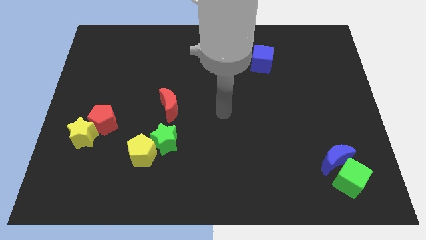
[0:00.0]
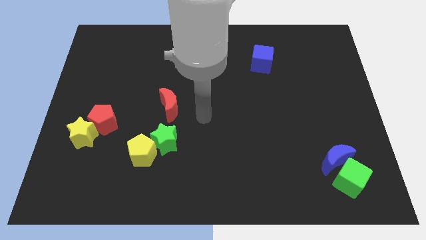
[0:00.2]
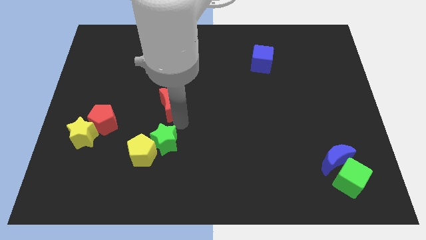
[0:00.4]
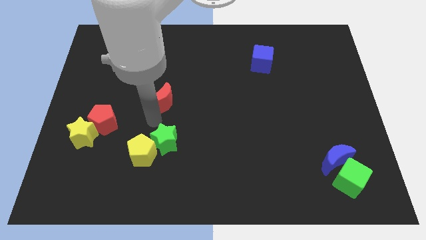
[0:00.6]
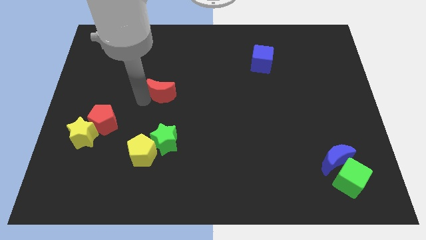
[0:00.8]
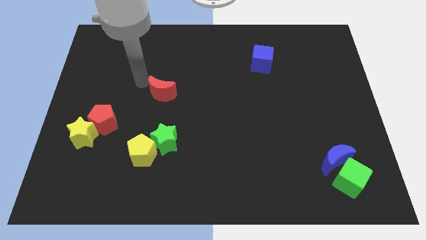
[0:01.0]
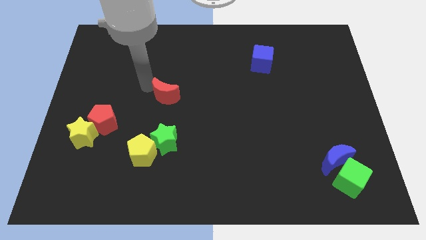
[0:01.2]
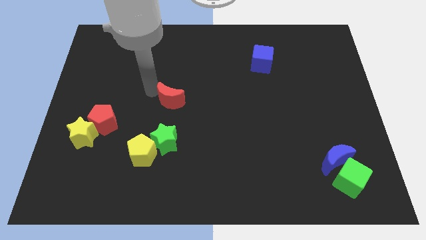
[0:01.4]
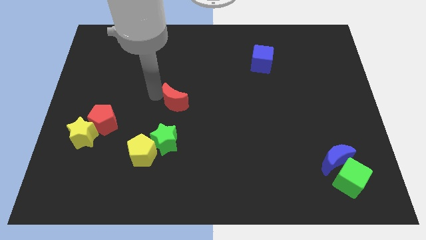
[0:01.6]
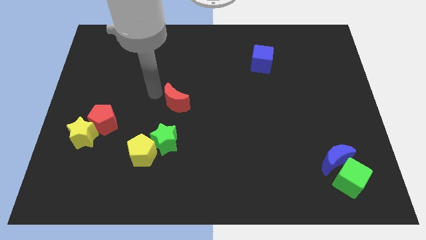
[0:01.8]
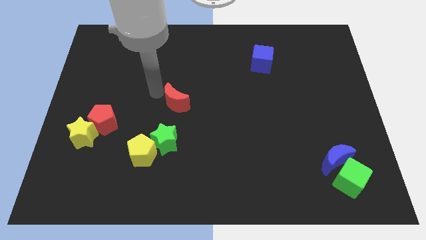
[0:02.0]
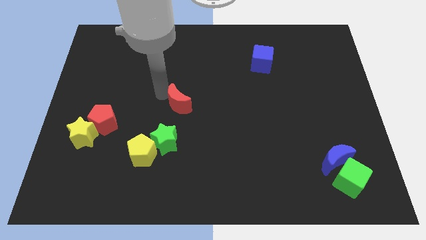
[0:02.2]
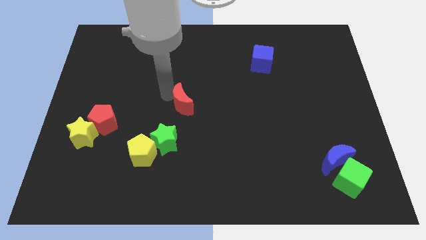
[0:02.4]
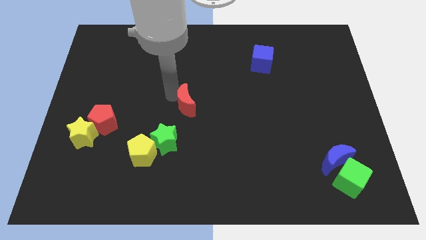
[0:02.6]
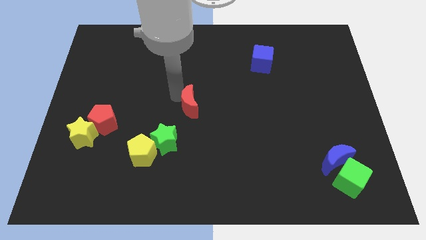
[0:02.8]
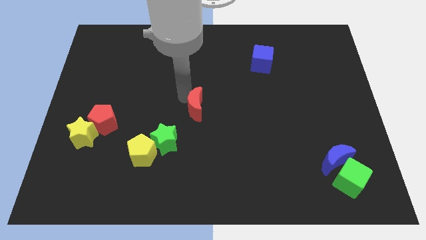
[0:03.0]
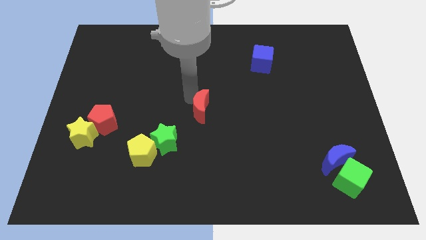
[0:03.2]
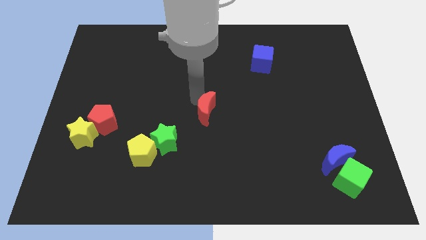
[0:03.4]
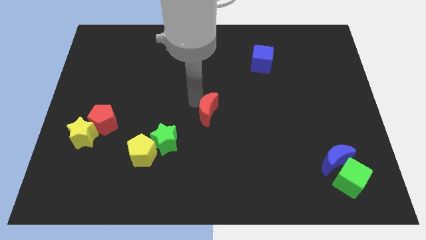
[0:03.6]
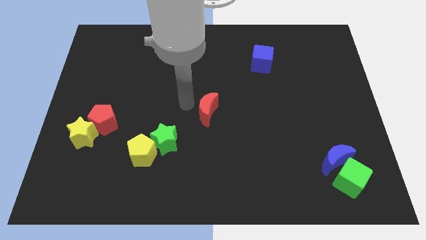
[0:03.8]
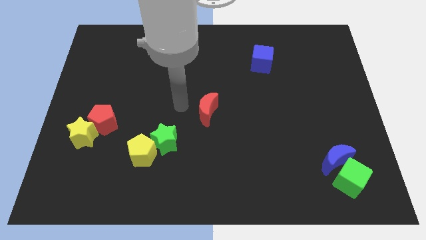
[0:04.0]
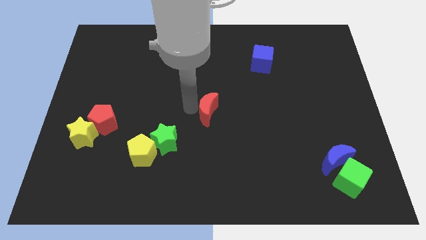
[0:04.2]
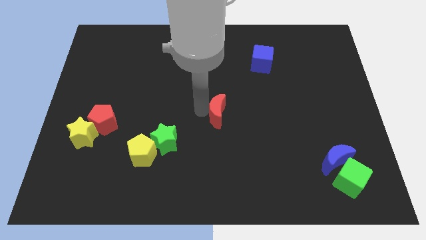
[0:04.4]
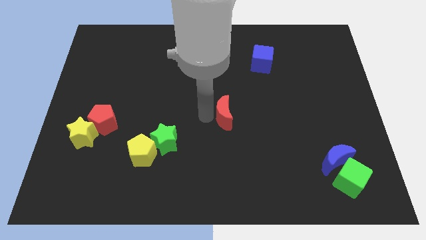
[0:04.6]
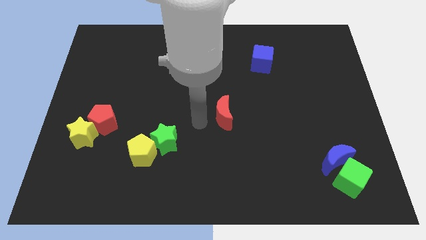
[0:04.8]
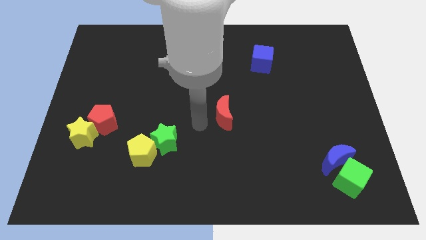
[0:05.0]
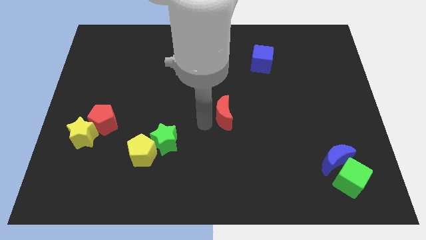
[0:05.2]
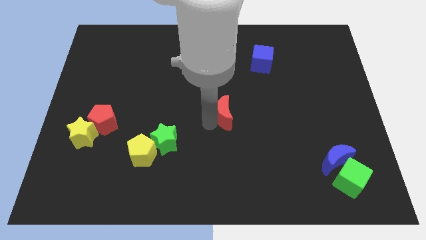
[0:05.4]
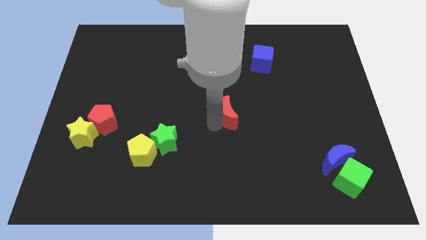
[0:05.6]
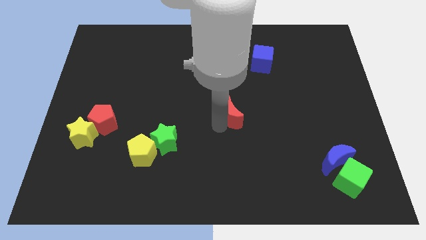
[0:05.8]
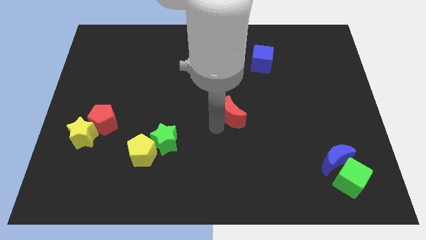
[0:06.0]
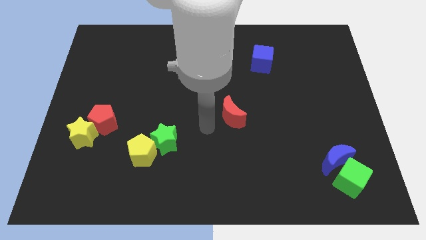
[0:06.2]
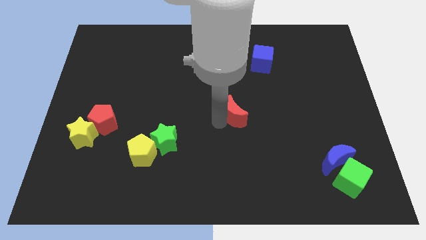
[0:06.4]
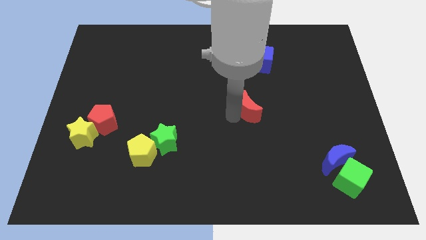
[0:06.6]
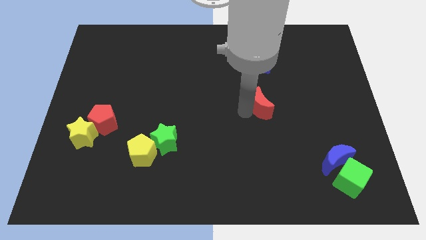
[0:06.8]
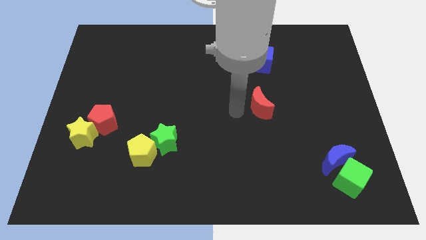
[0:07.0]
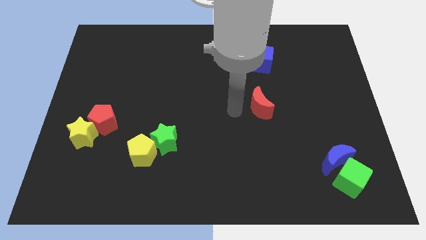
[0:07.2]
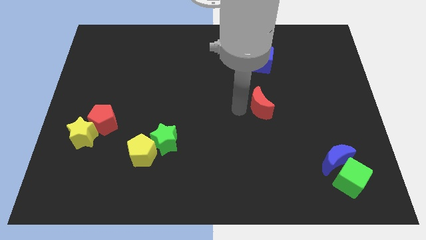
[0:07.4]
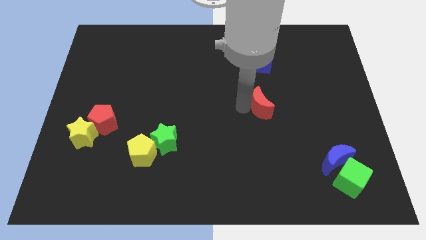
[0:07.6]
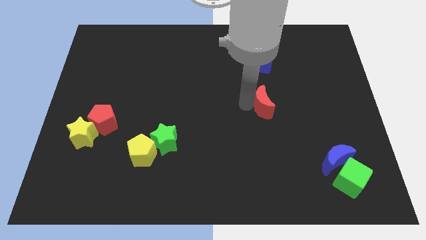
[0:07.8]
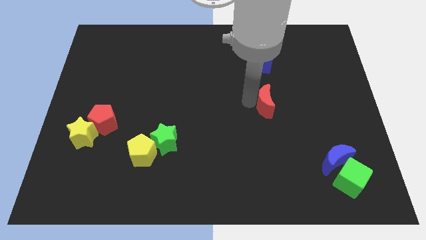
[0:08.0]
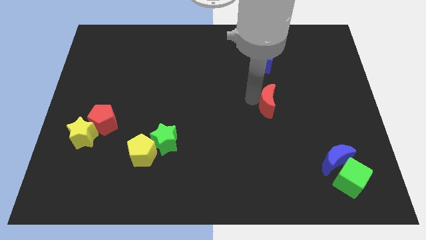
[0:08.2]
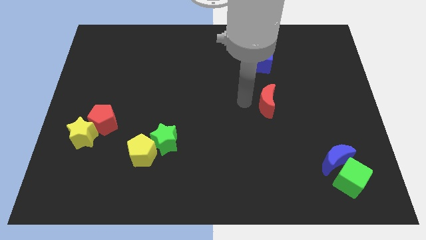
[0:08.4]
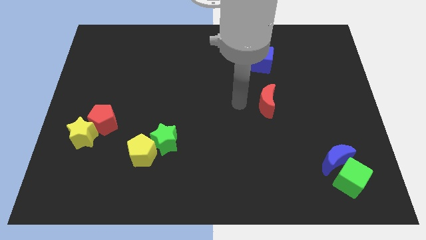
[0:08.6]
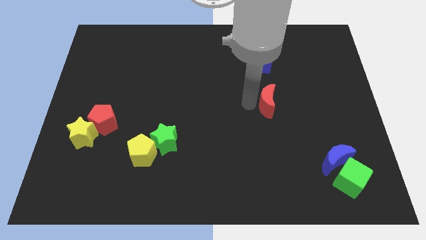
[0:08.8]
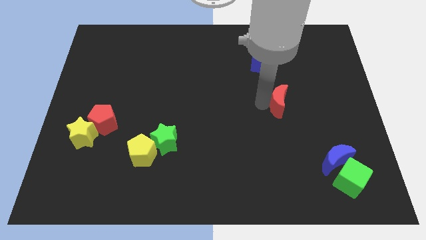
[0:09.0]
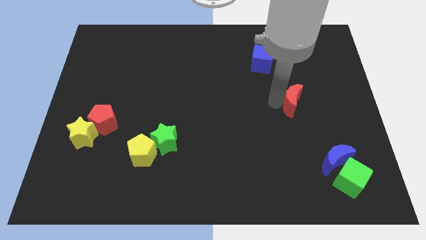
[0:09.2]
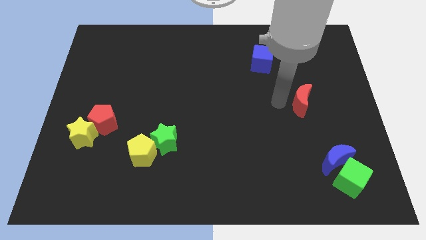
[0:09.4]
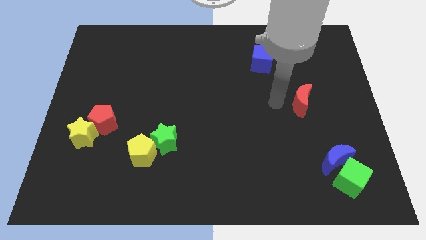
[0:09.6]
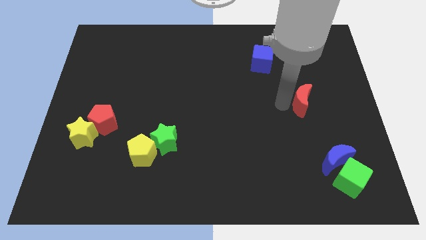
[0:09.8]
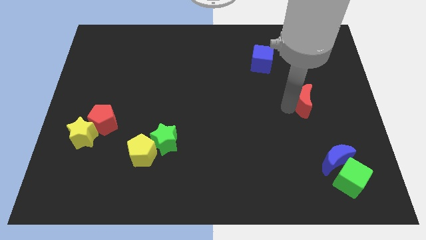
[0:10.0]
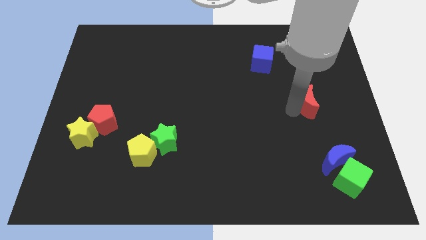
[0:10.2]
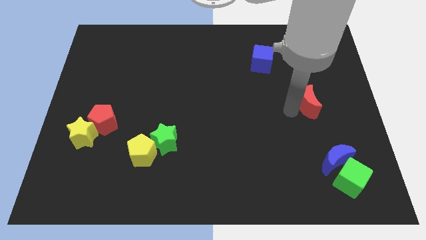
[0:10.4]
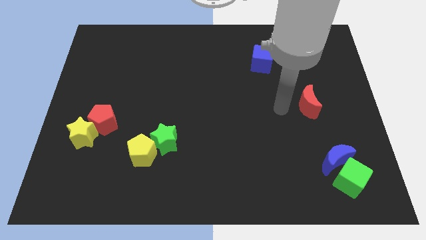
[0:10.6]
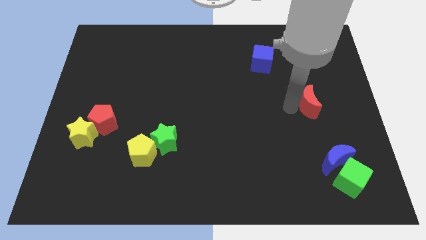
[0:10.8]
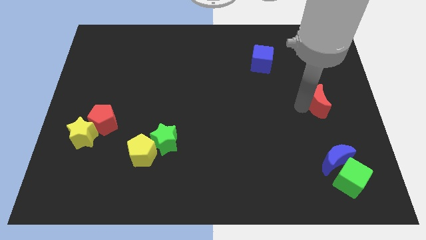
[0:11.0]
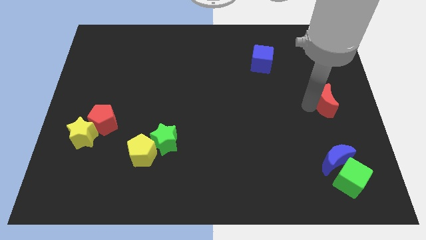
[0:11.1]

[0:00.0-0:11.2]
move the red moon to the right side of the board

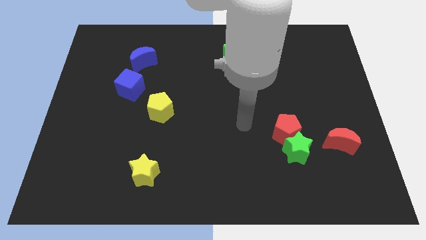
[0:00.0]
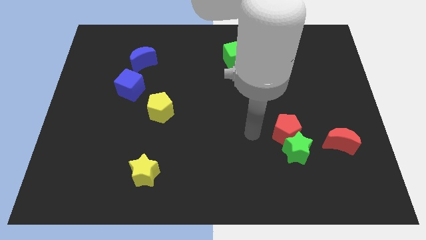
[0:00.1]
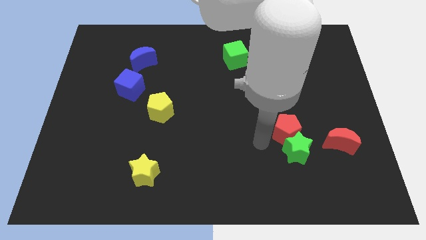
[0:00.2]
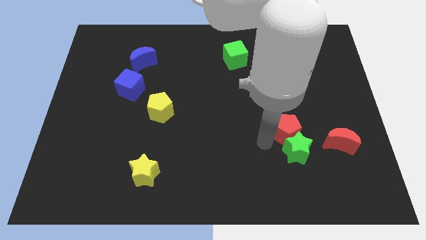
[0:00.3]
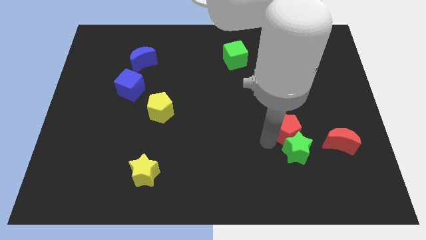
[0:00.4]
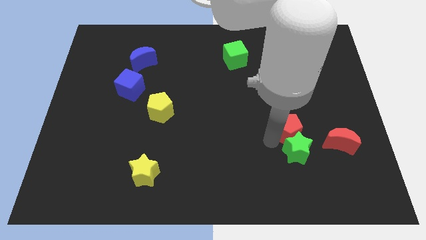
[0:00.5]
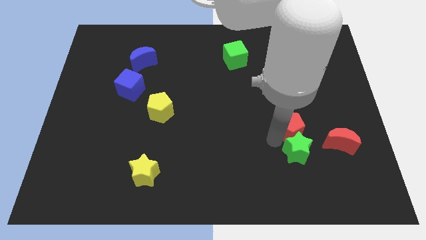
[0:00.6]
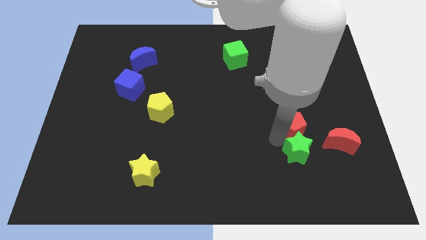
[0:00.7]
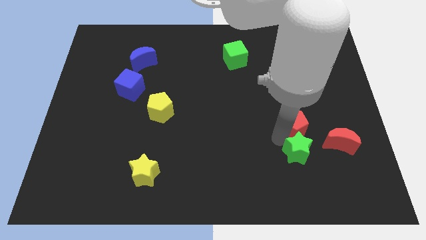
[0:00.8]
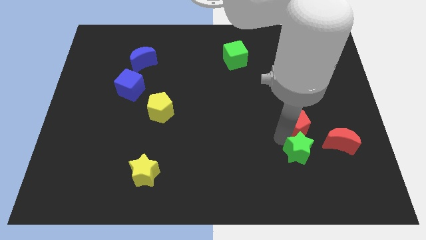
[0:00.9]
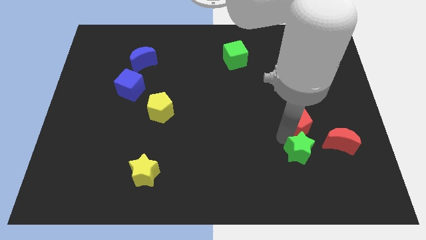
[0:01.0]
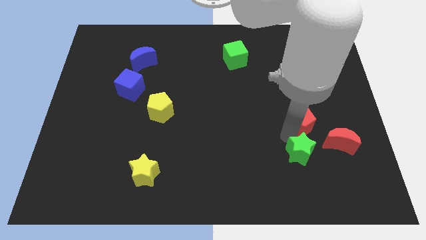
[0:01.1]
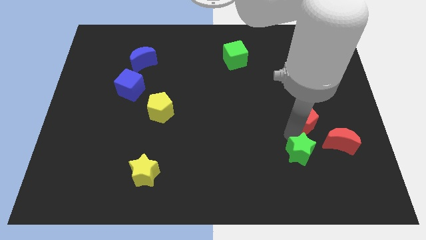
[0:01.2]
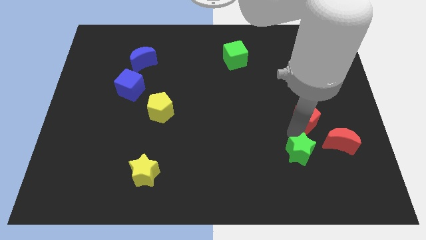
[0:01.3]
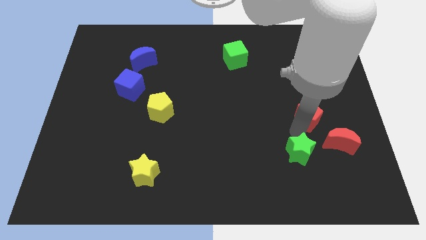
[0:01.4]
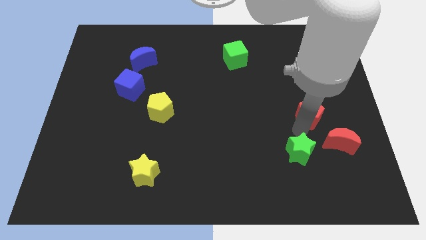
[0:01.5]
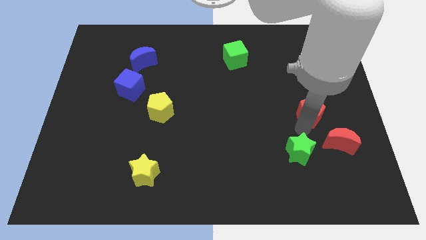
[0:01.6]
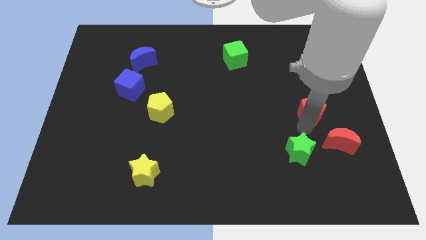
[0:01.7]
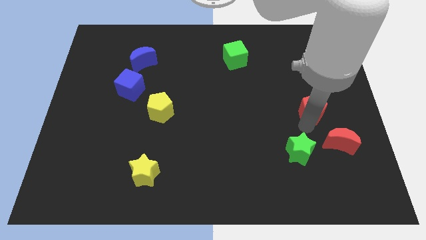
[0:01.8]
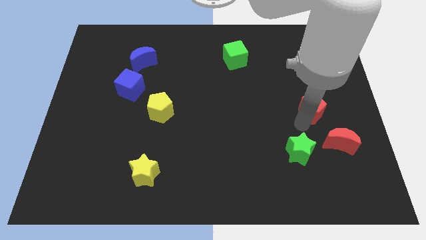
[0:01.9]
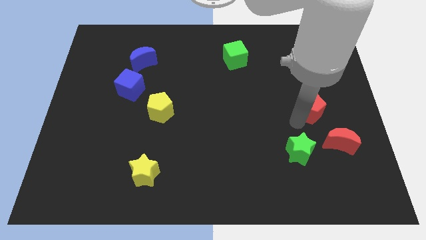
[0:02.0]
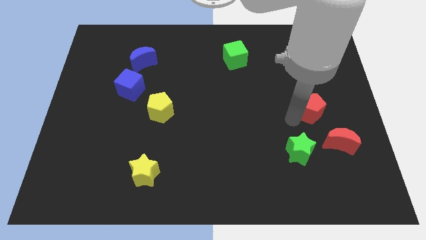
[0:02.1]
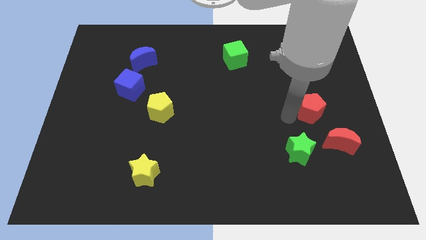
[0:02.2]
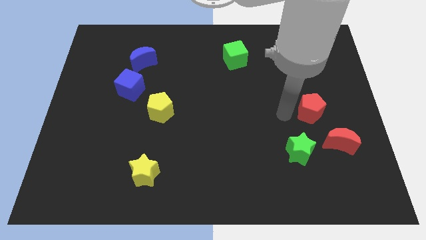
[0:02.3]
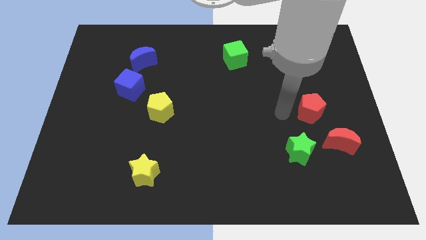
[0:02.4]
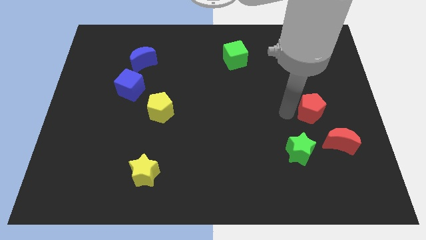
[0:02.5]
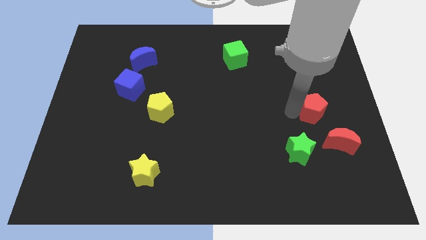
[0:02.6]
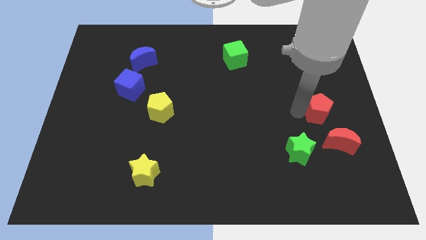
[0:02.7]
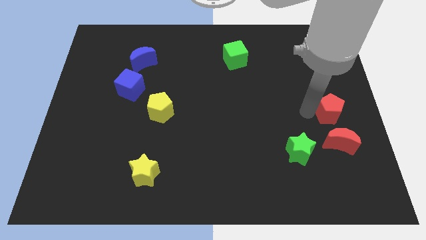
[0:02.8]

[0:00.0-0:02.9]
slide the red pentagon to the center right
